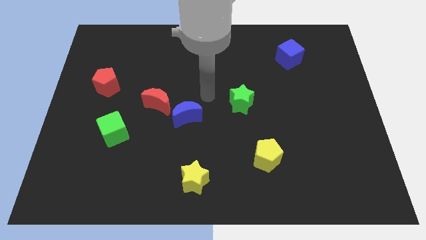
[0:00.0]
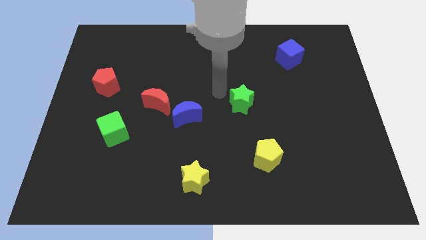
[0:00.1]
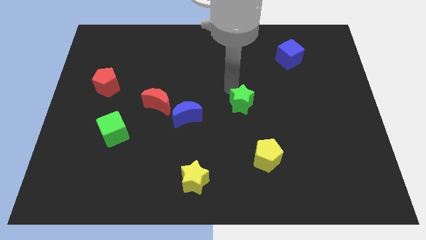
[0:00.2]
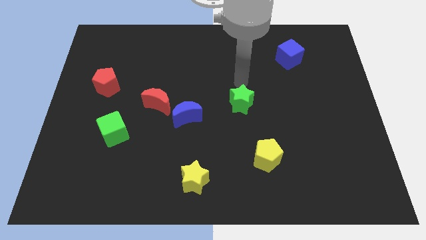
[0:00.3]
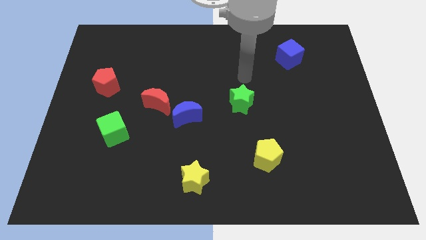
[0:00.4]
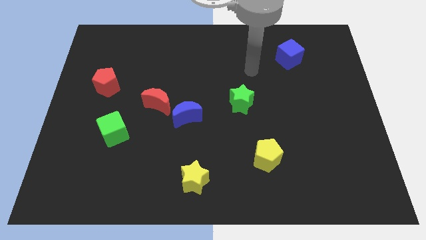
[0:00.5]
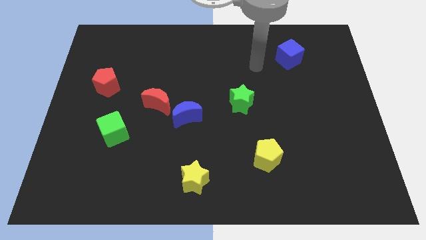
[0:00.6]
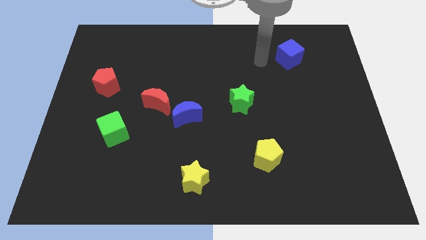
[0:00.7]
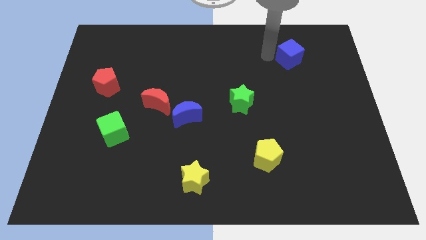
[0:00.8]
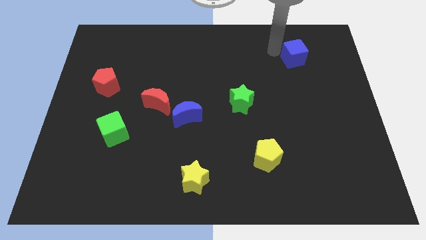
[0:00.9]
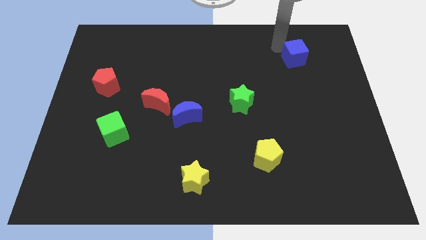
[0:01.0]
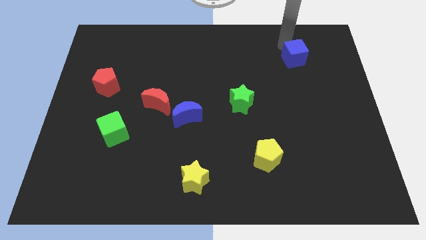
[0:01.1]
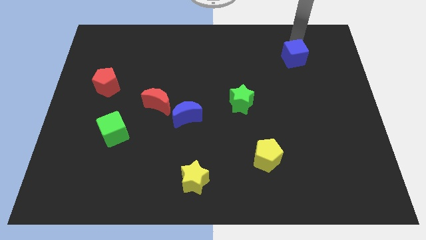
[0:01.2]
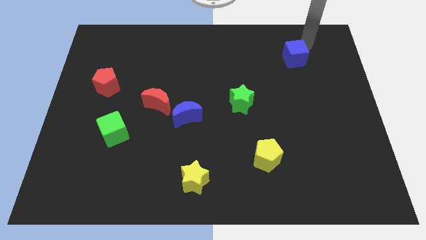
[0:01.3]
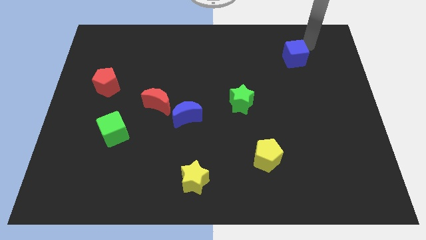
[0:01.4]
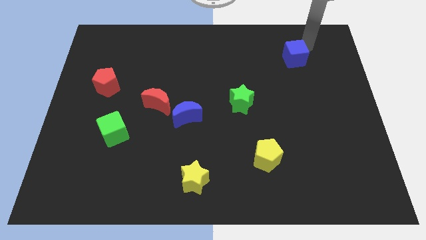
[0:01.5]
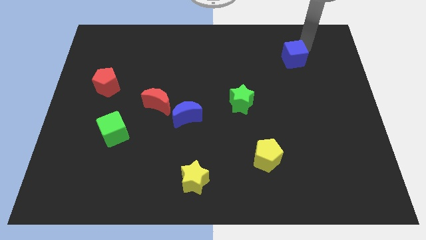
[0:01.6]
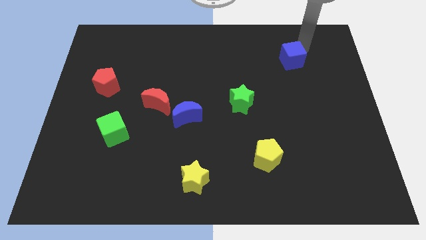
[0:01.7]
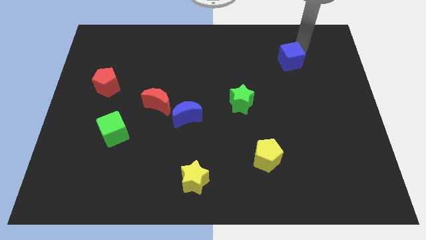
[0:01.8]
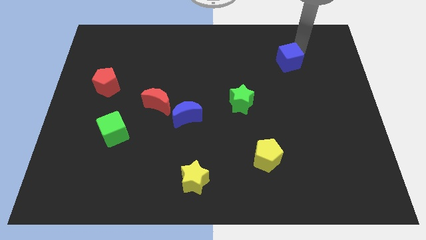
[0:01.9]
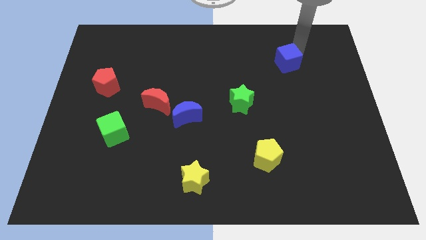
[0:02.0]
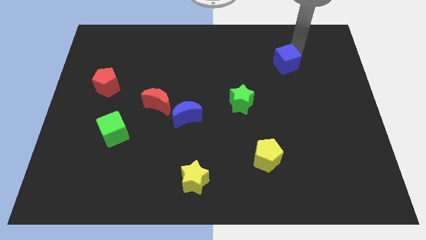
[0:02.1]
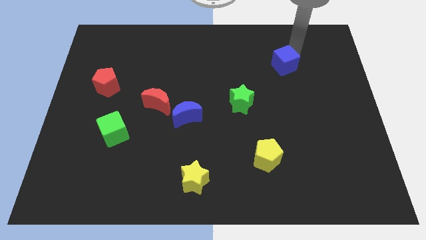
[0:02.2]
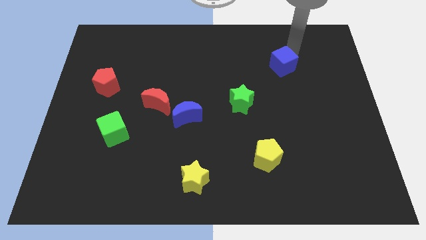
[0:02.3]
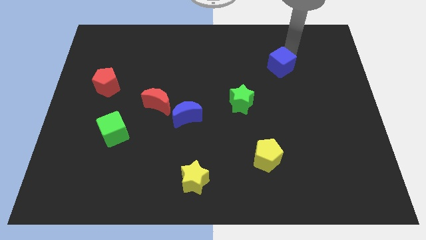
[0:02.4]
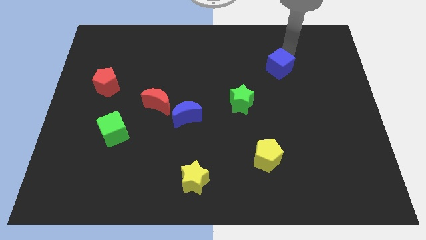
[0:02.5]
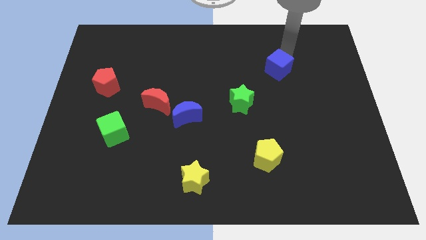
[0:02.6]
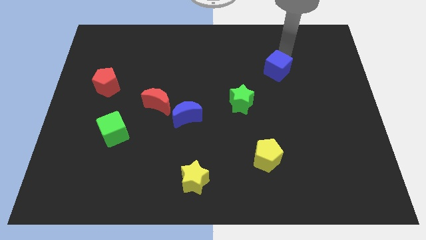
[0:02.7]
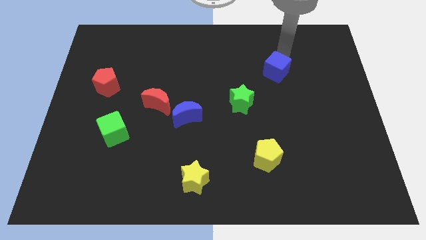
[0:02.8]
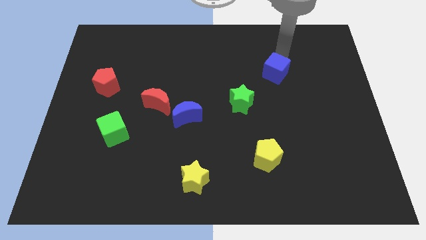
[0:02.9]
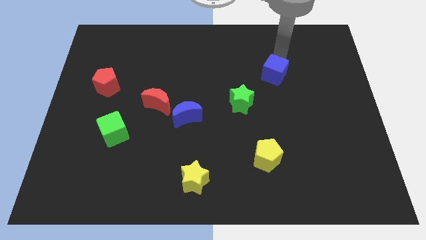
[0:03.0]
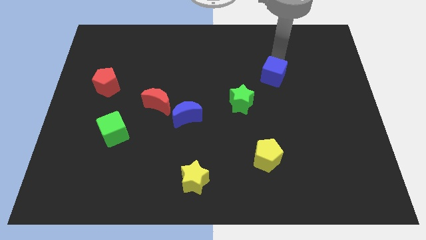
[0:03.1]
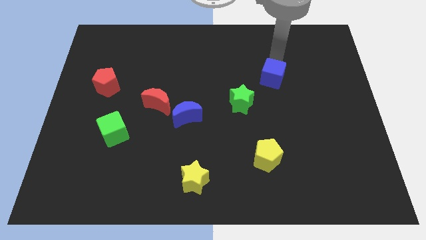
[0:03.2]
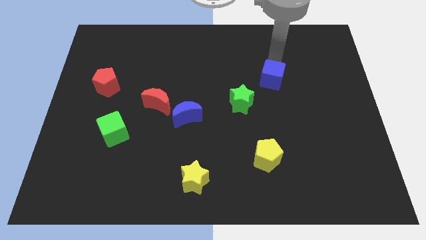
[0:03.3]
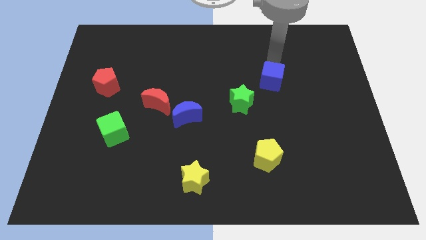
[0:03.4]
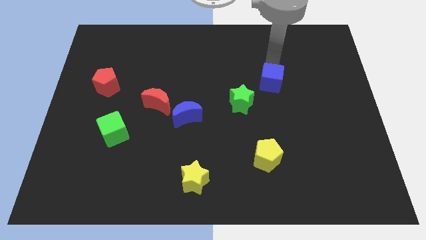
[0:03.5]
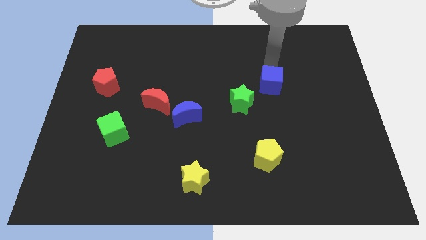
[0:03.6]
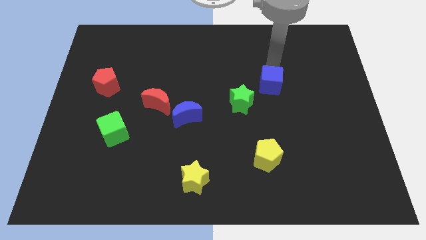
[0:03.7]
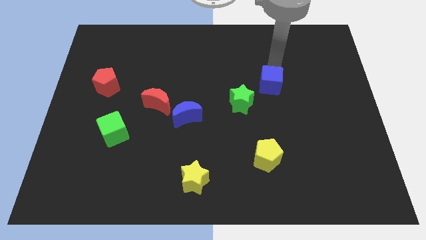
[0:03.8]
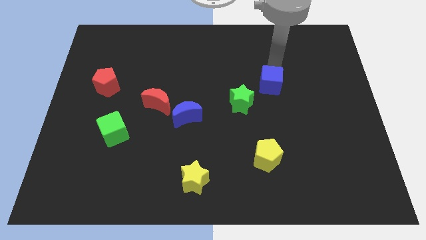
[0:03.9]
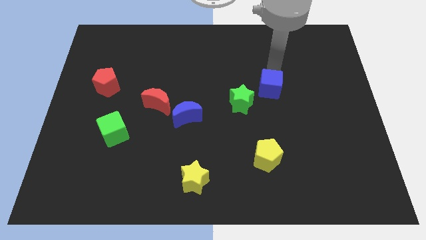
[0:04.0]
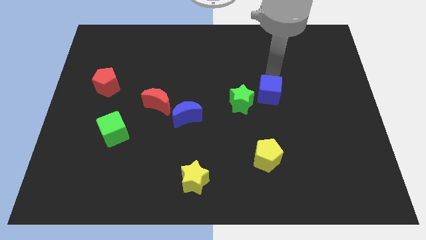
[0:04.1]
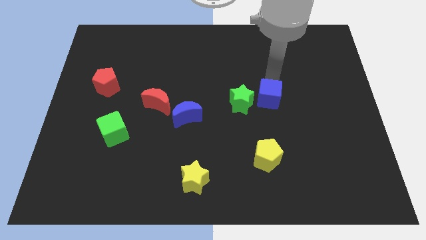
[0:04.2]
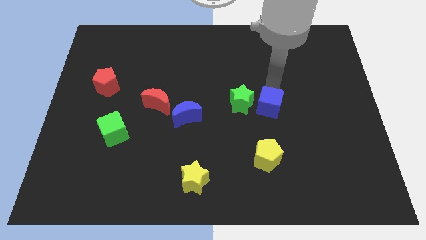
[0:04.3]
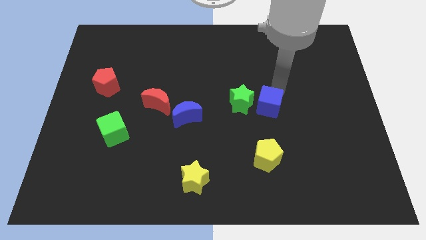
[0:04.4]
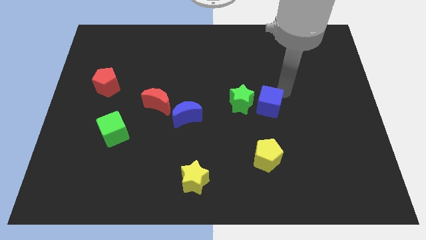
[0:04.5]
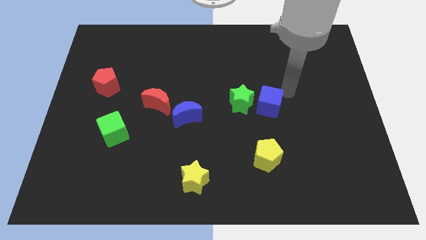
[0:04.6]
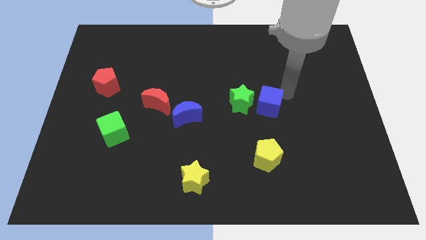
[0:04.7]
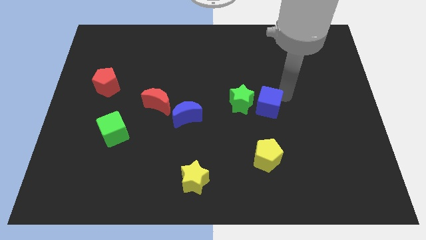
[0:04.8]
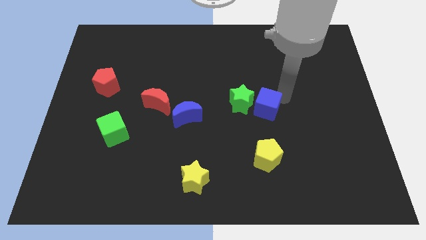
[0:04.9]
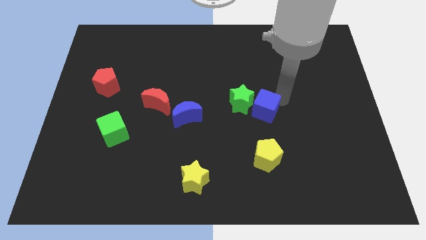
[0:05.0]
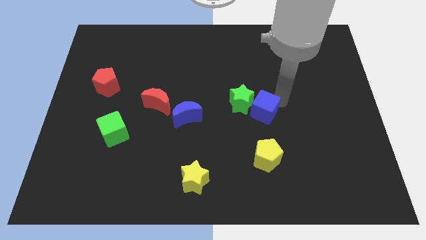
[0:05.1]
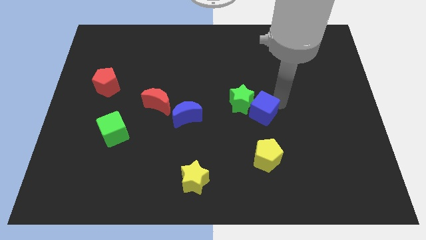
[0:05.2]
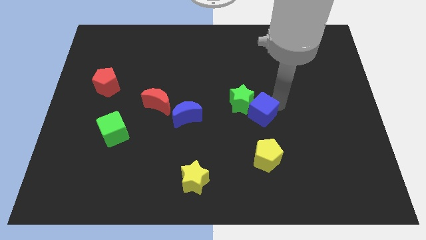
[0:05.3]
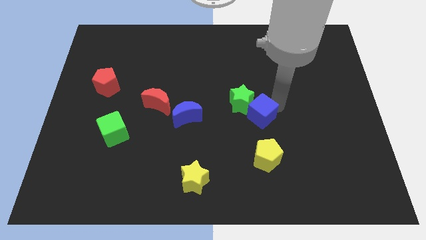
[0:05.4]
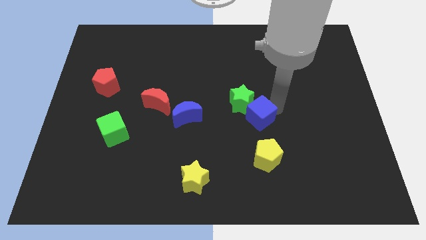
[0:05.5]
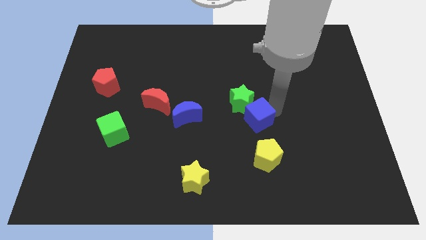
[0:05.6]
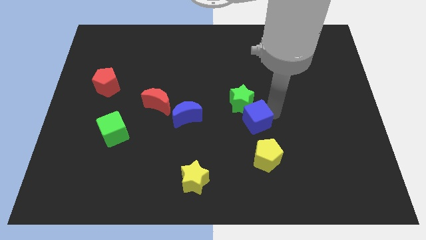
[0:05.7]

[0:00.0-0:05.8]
slide the blue cube right of the blue moon

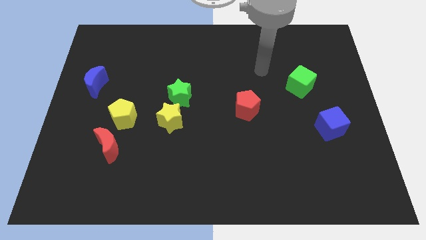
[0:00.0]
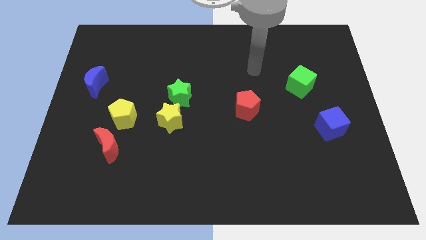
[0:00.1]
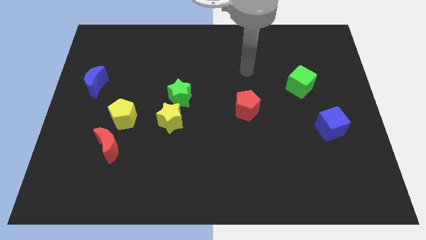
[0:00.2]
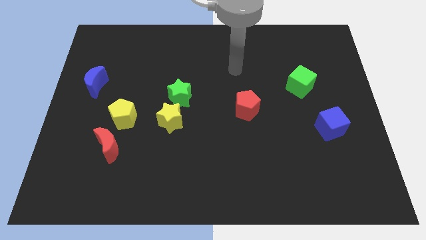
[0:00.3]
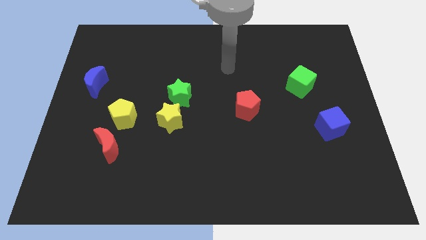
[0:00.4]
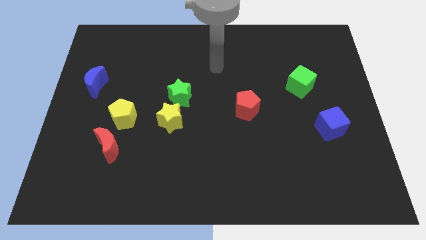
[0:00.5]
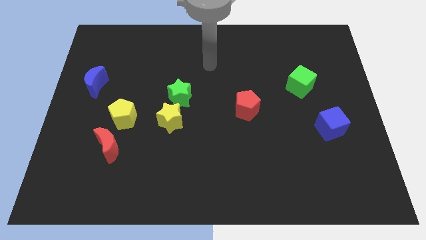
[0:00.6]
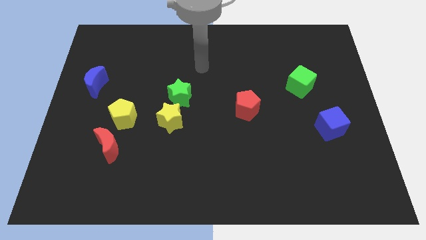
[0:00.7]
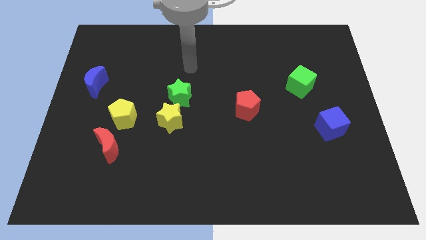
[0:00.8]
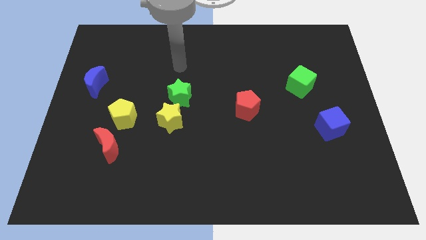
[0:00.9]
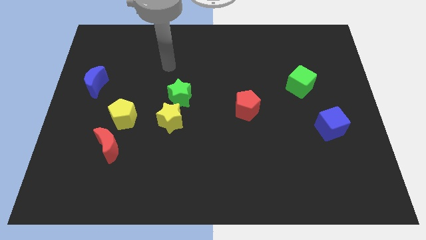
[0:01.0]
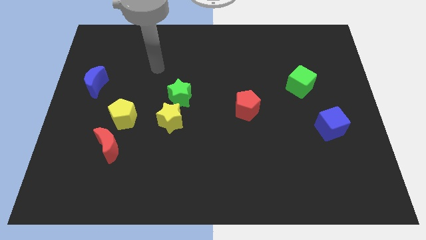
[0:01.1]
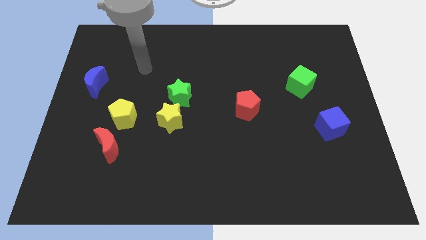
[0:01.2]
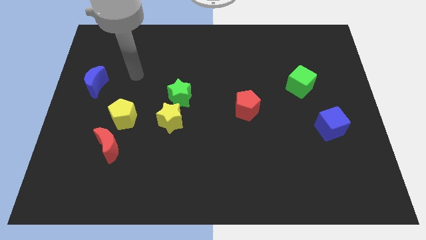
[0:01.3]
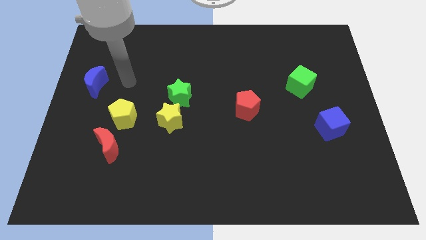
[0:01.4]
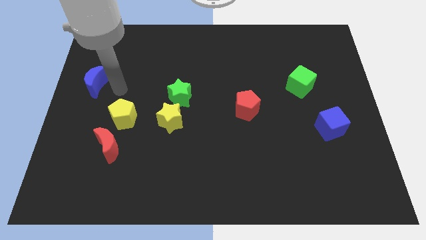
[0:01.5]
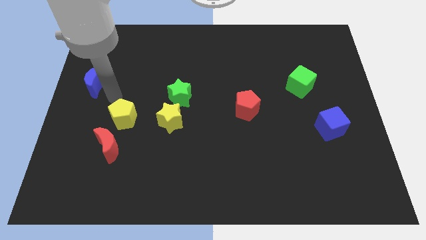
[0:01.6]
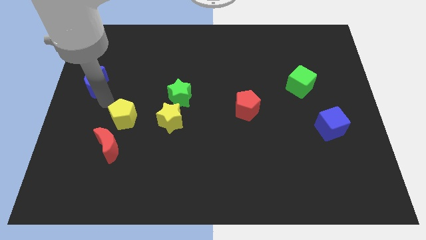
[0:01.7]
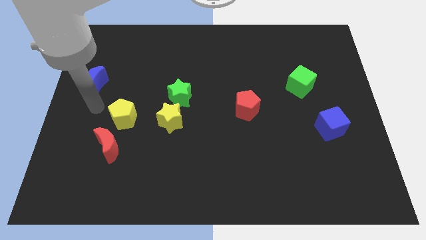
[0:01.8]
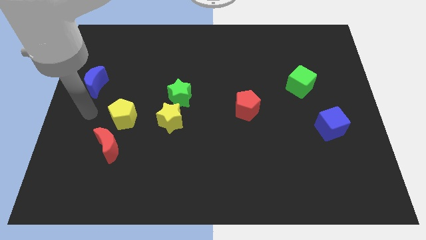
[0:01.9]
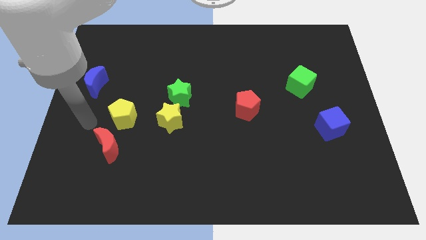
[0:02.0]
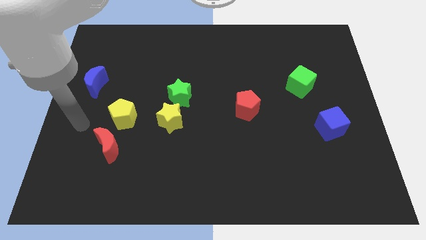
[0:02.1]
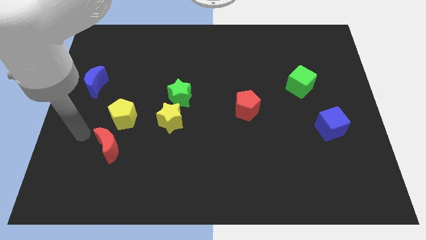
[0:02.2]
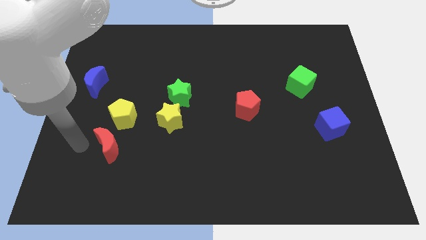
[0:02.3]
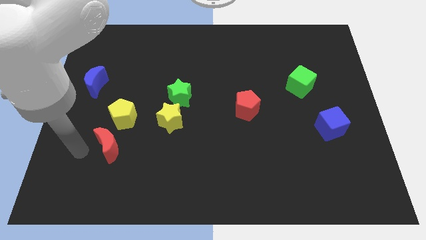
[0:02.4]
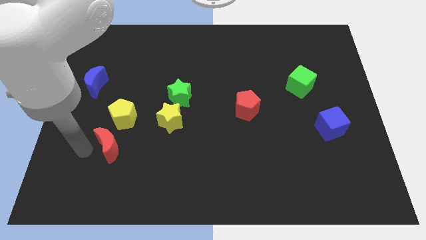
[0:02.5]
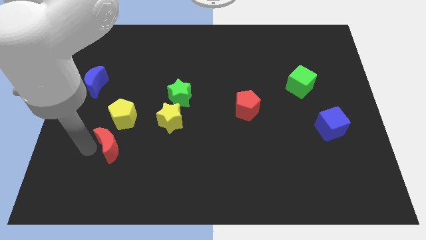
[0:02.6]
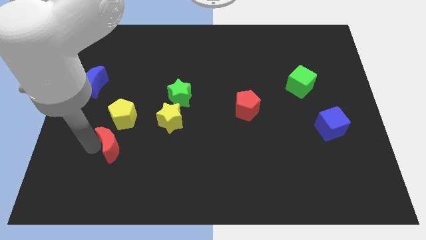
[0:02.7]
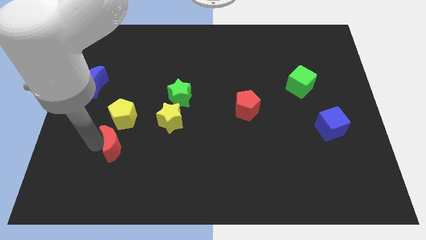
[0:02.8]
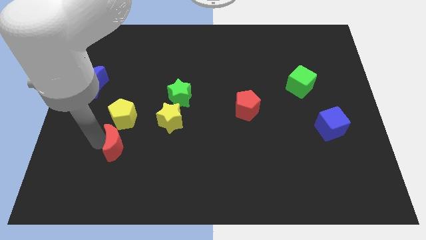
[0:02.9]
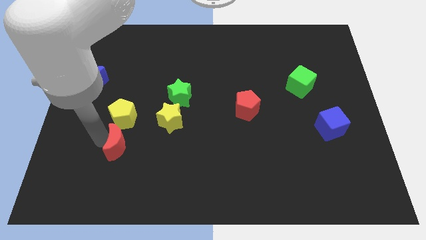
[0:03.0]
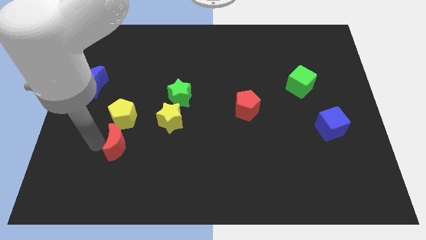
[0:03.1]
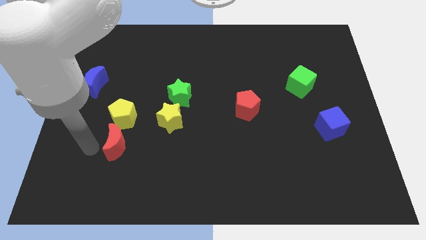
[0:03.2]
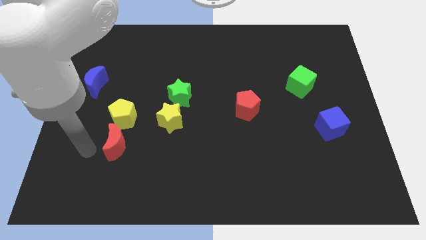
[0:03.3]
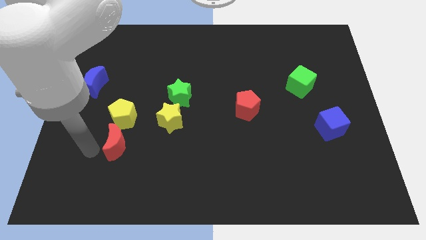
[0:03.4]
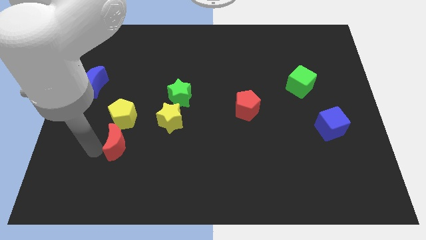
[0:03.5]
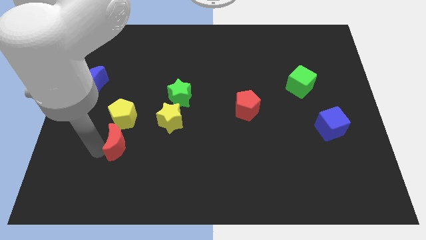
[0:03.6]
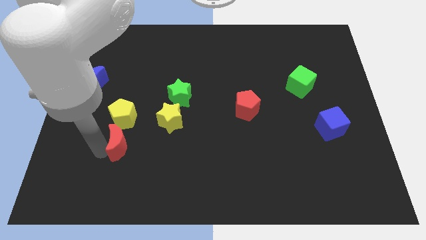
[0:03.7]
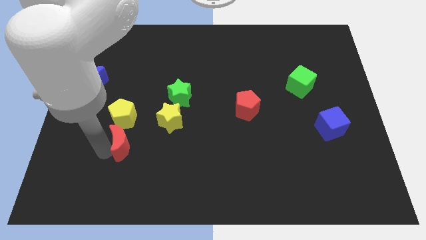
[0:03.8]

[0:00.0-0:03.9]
push the red moon to the bottom left side of the yellow star
